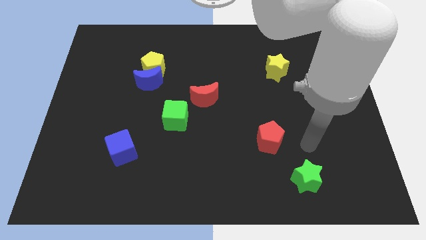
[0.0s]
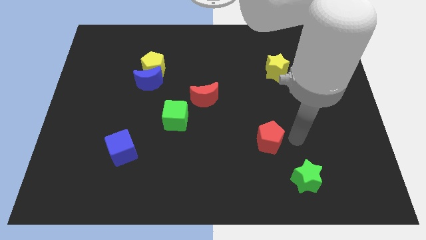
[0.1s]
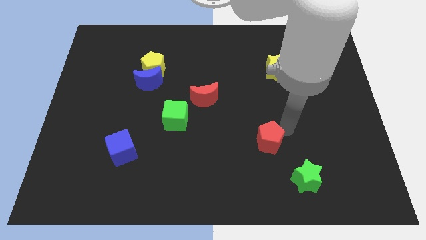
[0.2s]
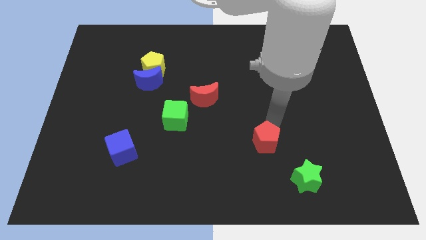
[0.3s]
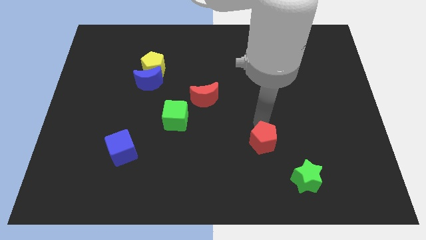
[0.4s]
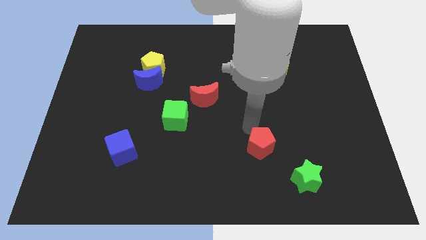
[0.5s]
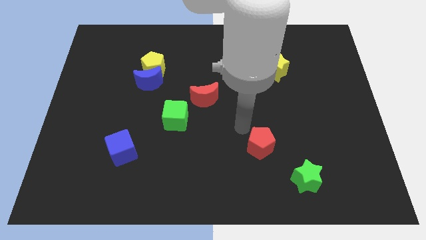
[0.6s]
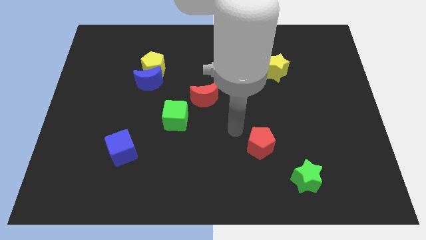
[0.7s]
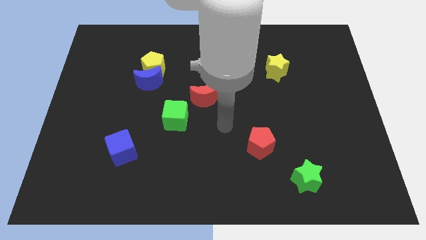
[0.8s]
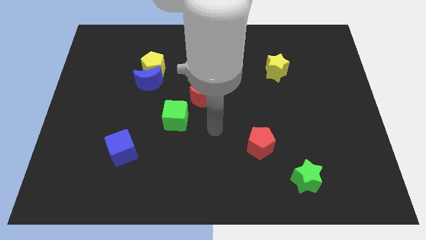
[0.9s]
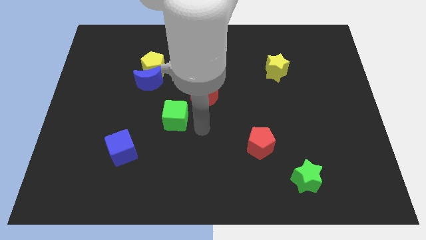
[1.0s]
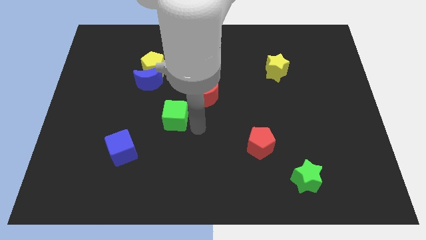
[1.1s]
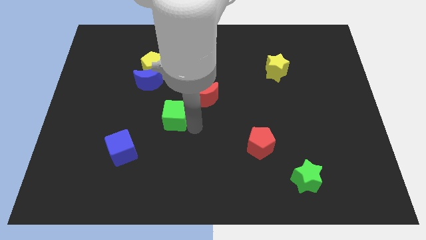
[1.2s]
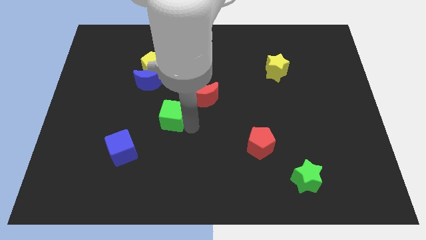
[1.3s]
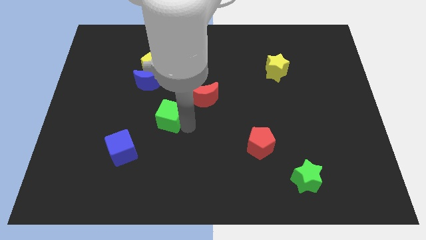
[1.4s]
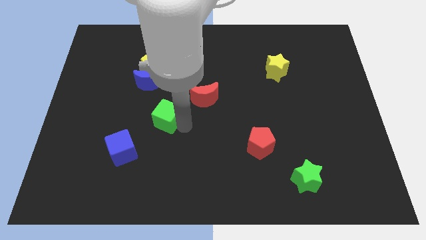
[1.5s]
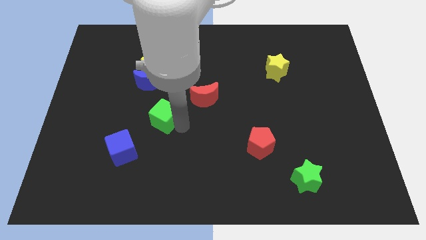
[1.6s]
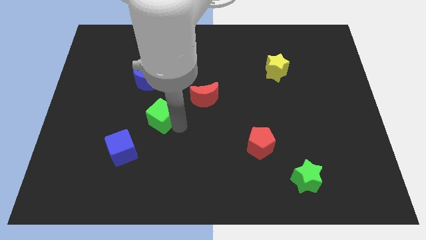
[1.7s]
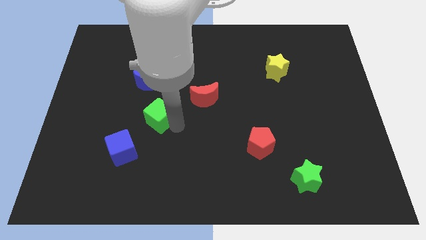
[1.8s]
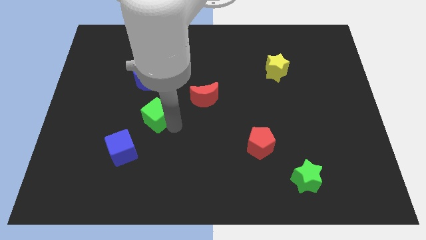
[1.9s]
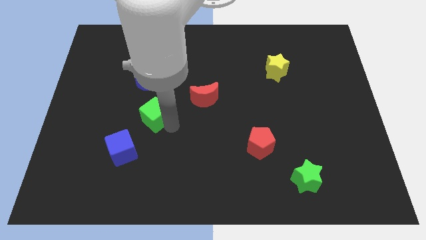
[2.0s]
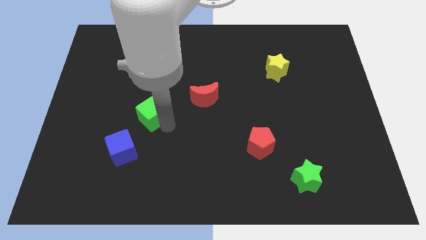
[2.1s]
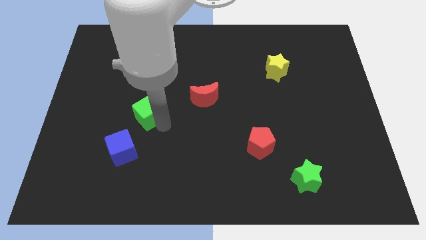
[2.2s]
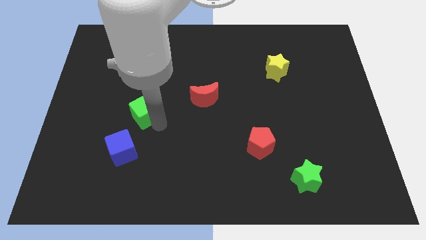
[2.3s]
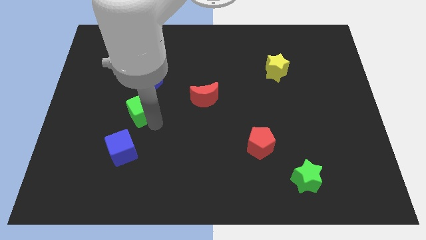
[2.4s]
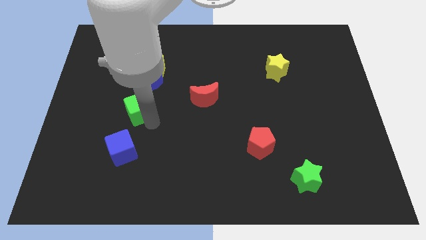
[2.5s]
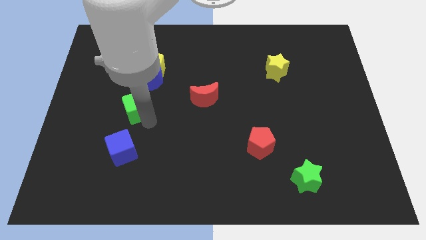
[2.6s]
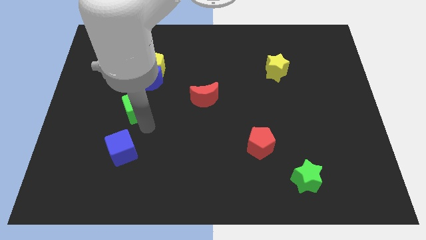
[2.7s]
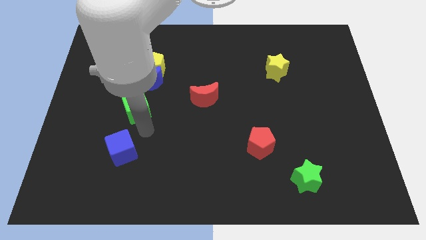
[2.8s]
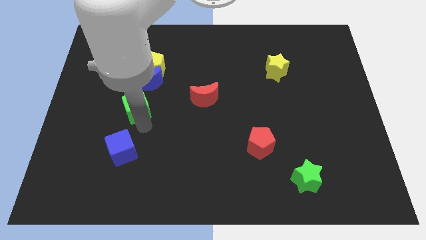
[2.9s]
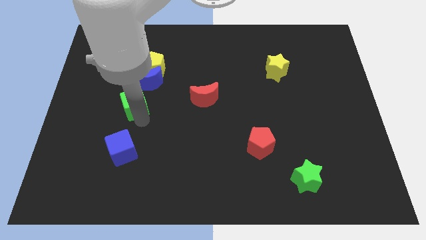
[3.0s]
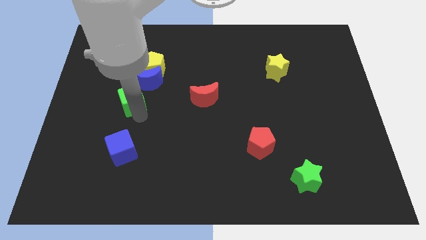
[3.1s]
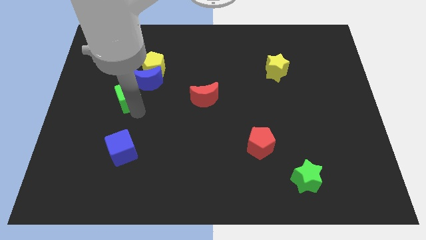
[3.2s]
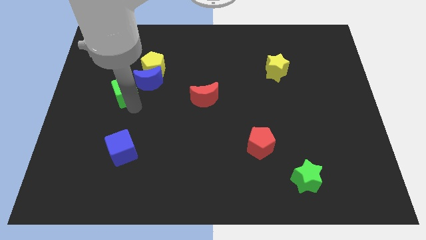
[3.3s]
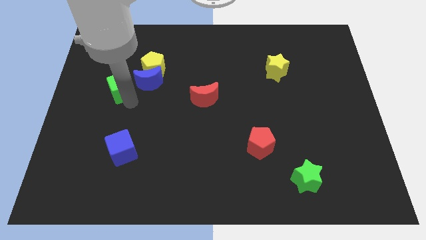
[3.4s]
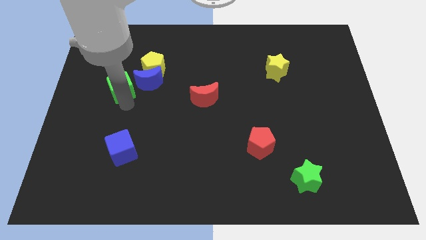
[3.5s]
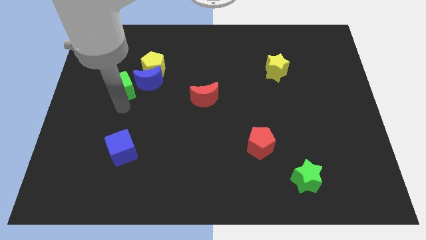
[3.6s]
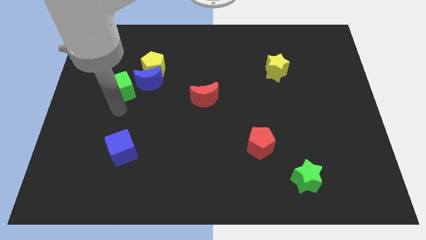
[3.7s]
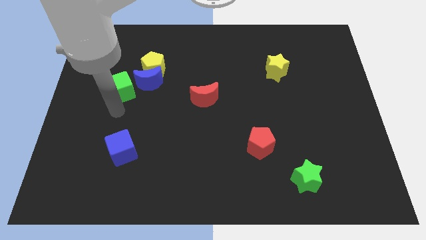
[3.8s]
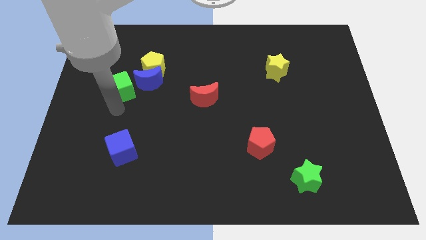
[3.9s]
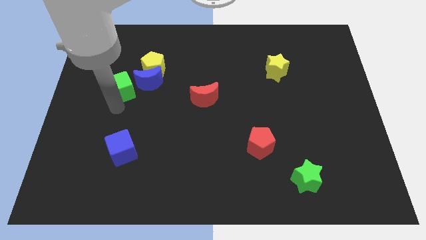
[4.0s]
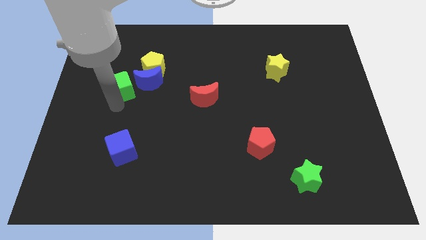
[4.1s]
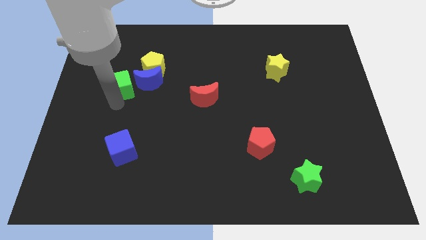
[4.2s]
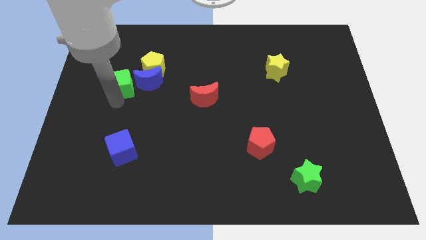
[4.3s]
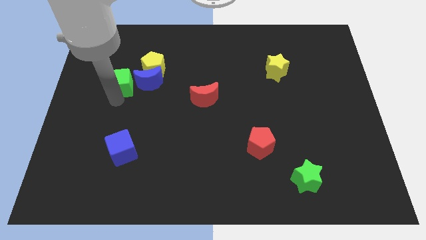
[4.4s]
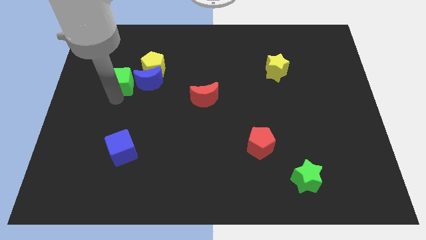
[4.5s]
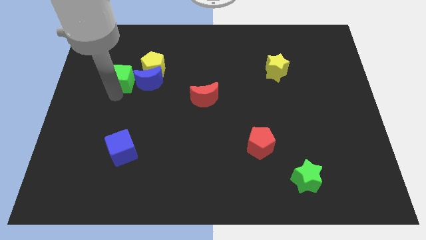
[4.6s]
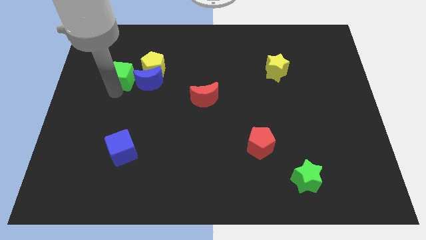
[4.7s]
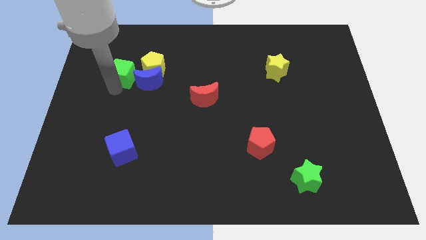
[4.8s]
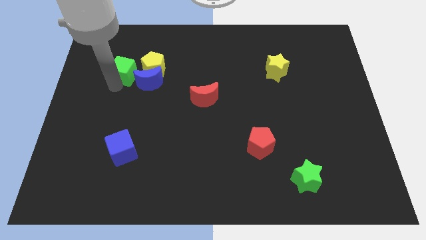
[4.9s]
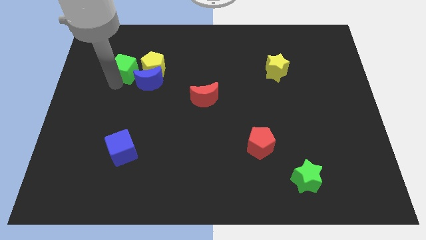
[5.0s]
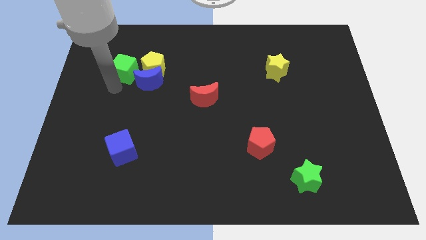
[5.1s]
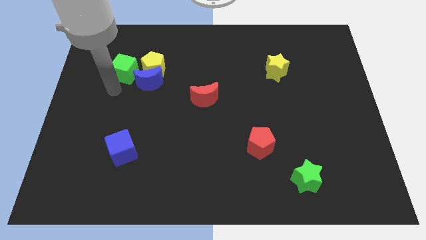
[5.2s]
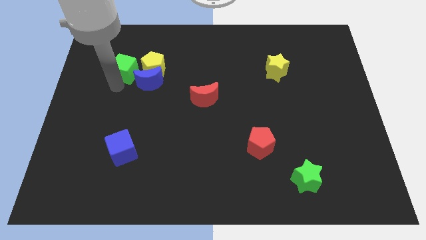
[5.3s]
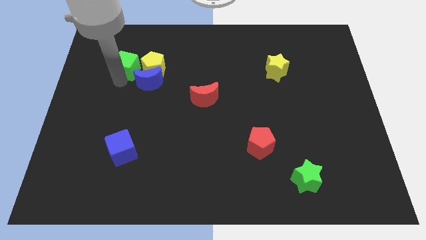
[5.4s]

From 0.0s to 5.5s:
move the green cube diagonally up and to the left of the yellow pentagon

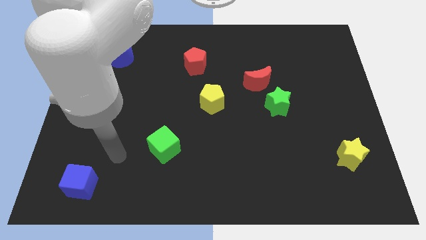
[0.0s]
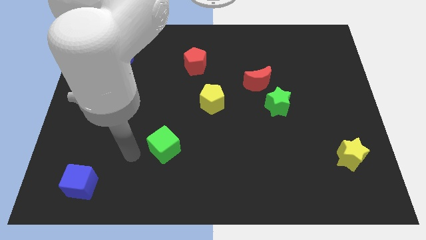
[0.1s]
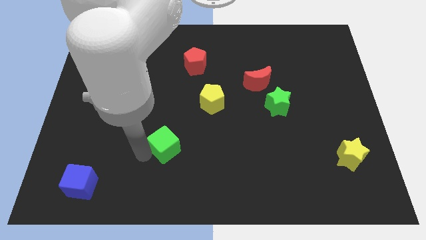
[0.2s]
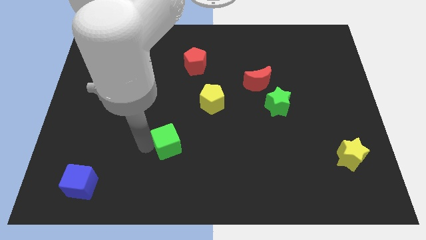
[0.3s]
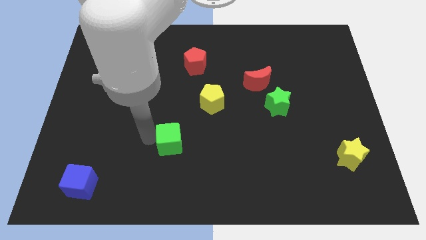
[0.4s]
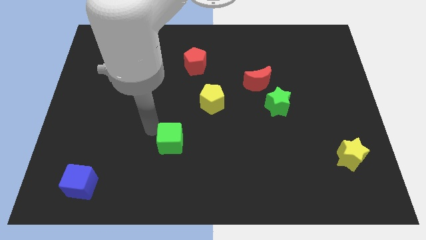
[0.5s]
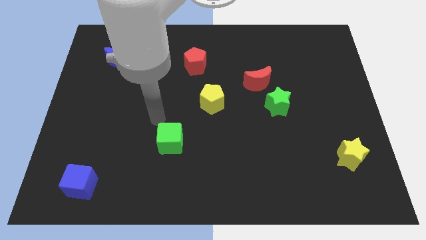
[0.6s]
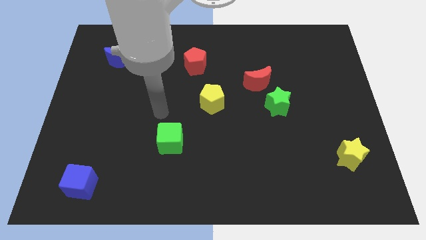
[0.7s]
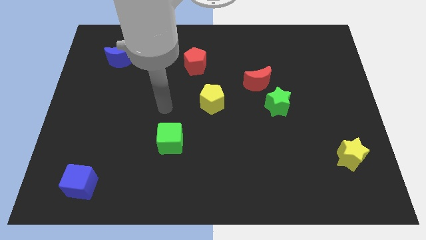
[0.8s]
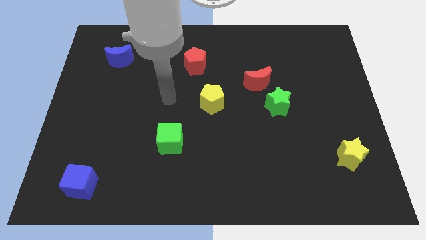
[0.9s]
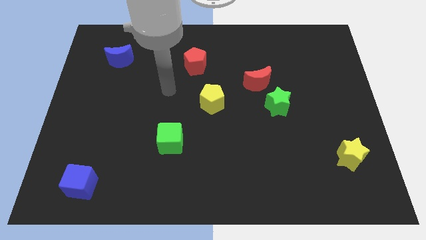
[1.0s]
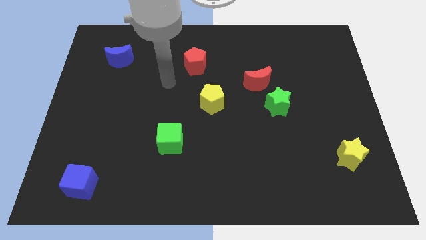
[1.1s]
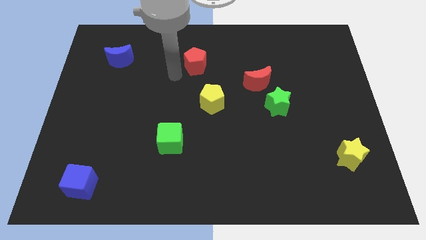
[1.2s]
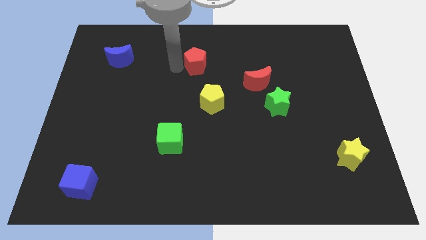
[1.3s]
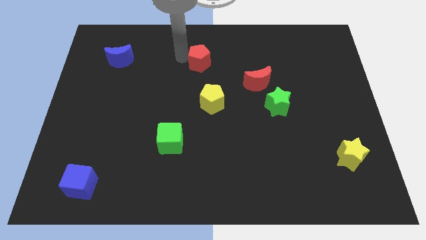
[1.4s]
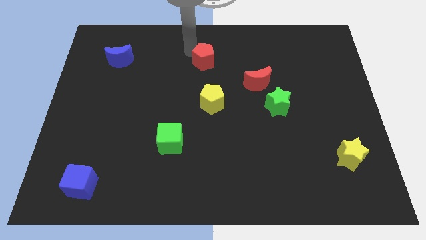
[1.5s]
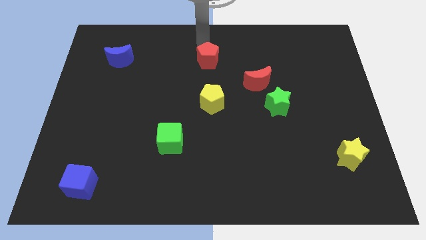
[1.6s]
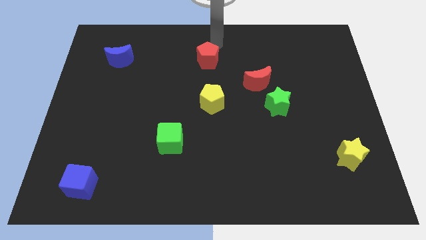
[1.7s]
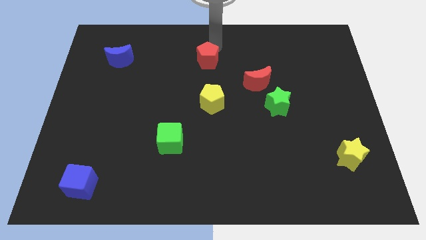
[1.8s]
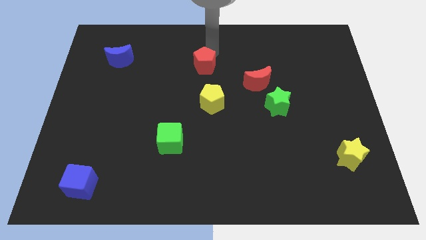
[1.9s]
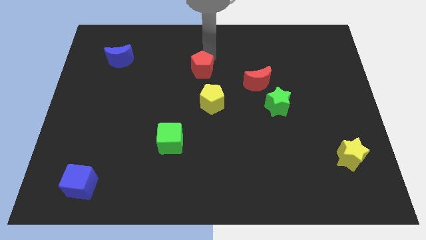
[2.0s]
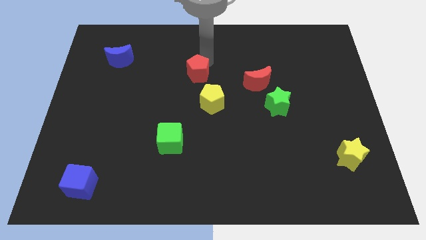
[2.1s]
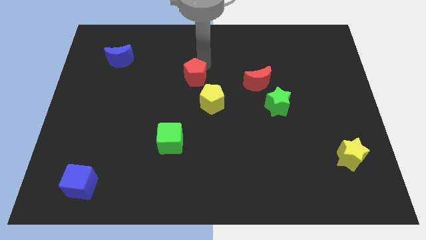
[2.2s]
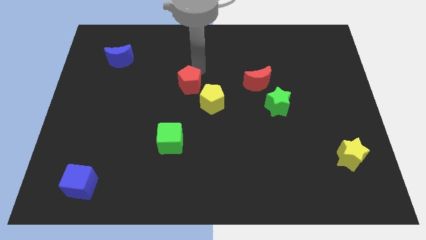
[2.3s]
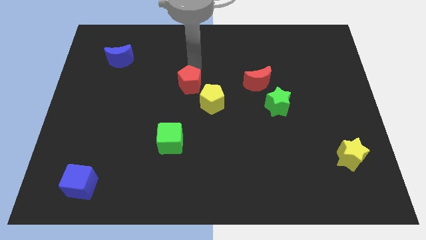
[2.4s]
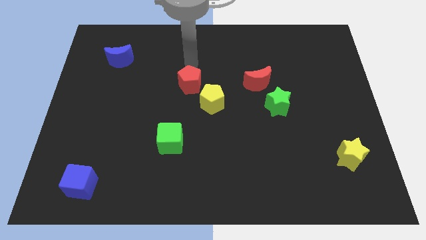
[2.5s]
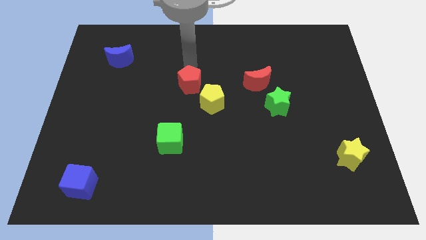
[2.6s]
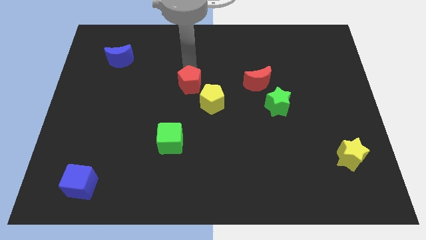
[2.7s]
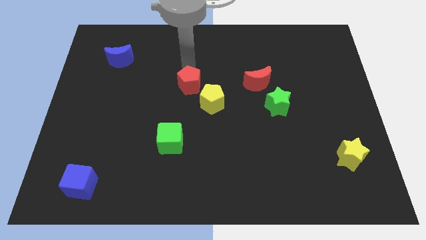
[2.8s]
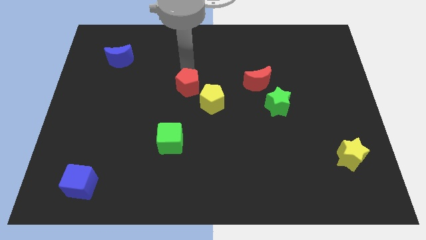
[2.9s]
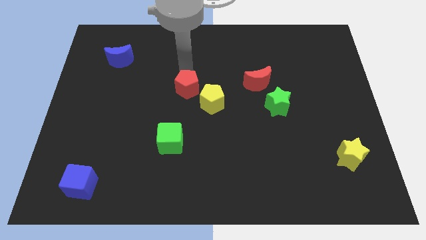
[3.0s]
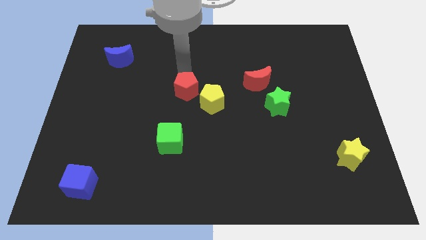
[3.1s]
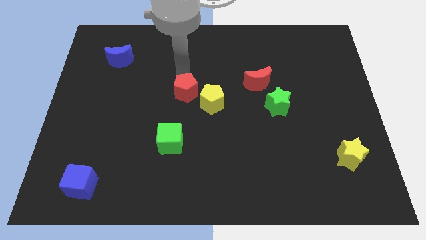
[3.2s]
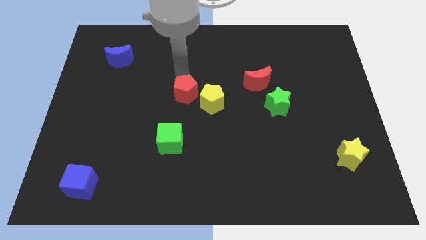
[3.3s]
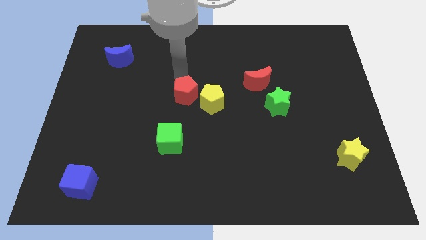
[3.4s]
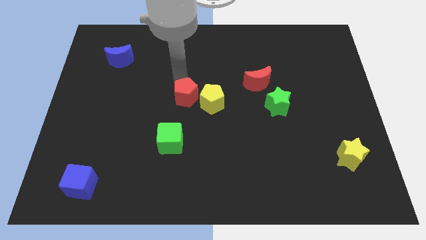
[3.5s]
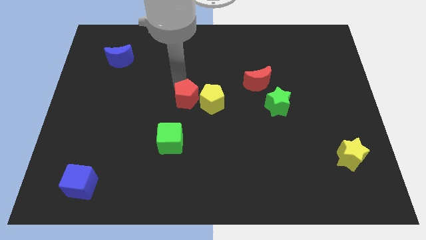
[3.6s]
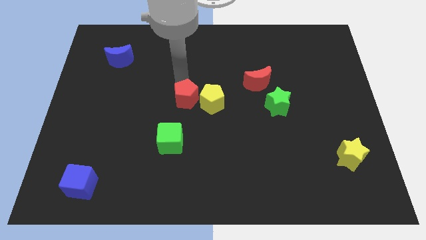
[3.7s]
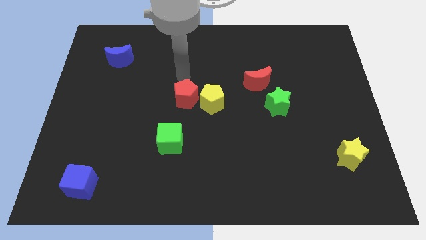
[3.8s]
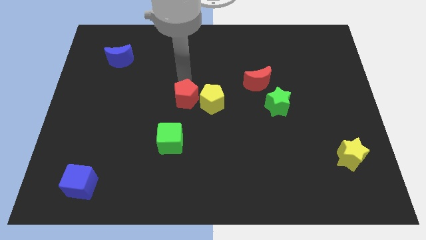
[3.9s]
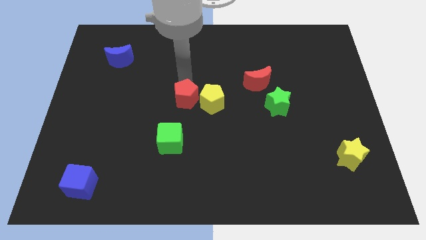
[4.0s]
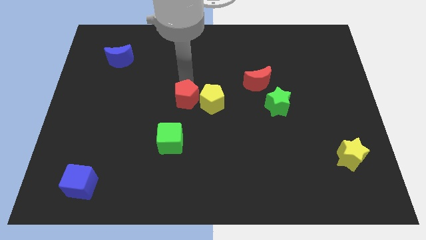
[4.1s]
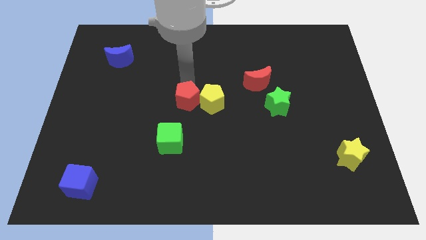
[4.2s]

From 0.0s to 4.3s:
push the red pentagon diagonally down and to the left of the yellow pentagon
